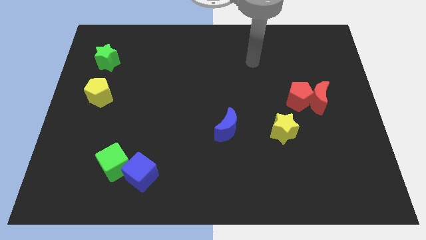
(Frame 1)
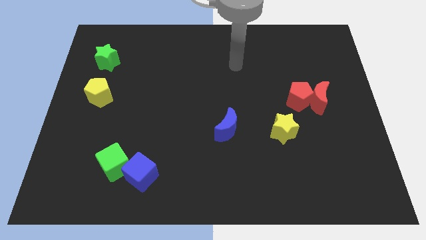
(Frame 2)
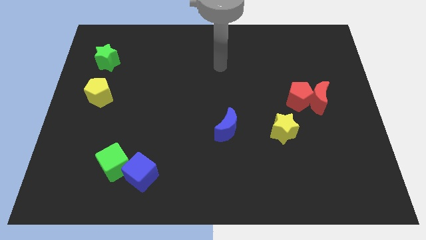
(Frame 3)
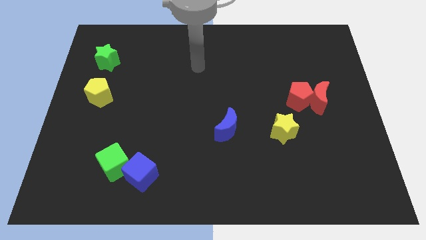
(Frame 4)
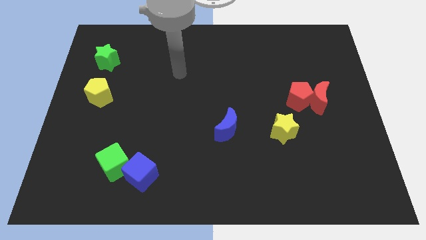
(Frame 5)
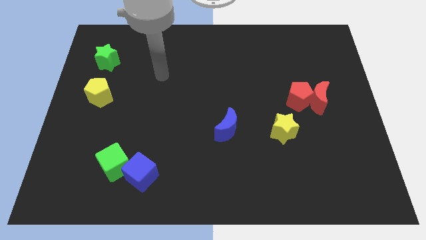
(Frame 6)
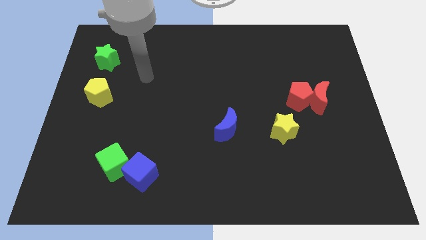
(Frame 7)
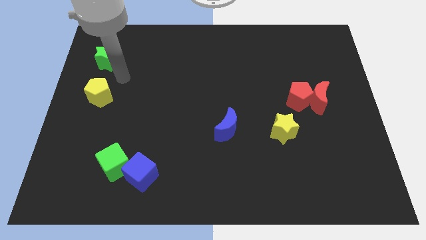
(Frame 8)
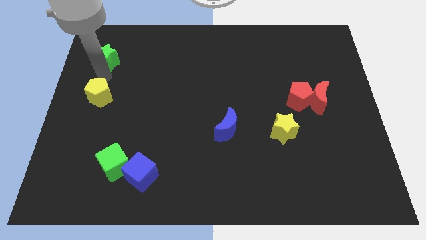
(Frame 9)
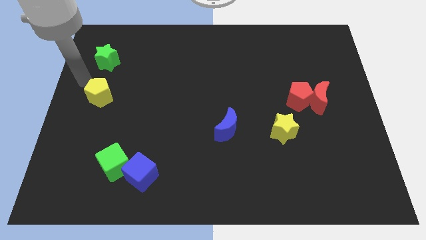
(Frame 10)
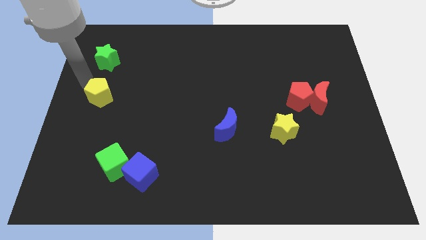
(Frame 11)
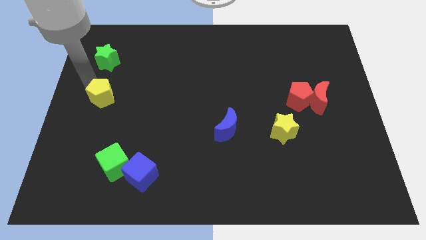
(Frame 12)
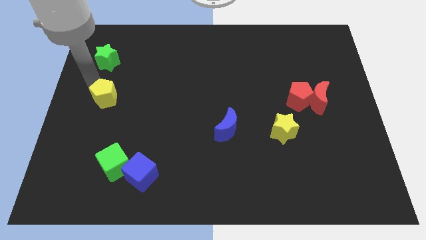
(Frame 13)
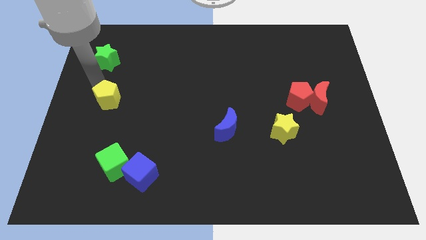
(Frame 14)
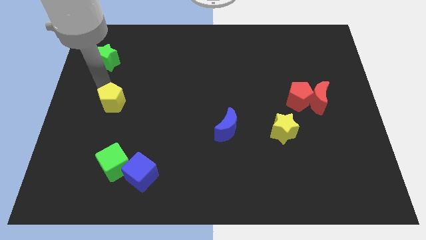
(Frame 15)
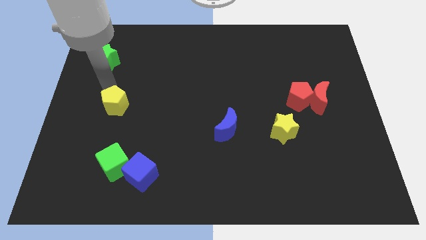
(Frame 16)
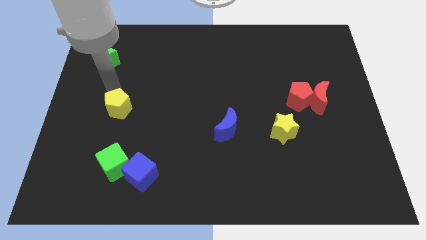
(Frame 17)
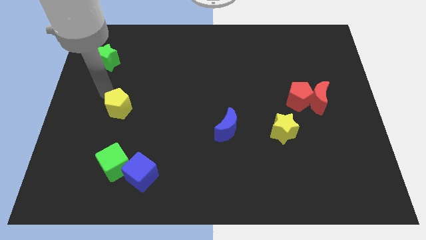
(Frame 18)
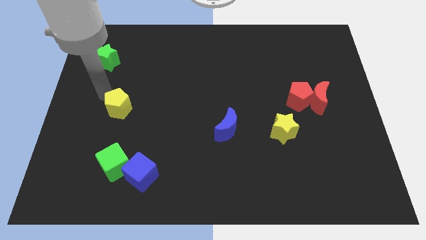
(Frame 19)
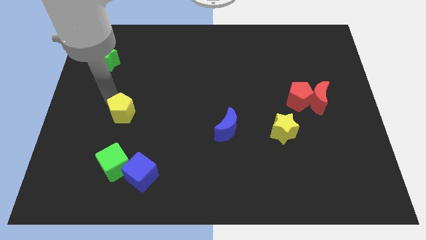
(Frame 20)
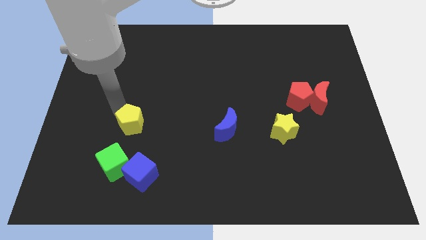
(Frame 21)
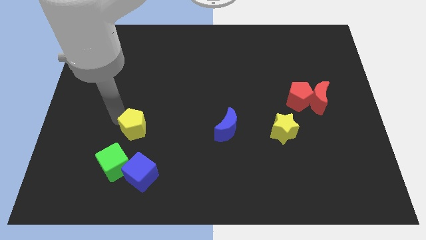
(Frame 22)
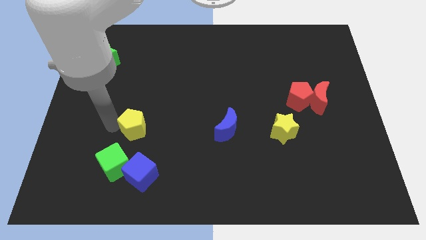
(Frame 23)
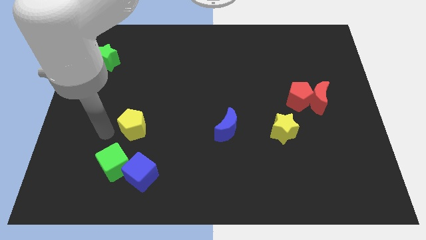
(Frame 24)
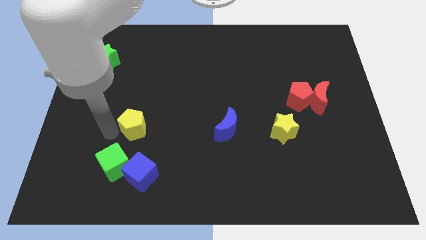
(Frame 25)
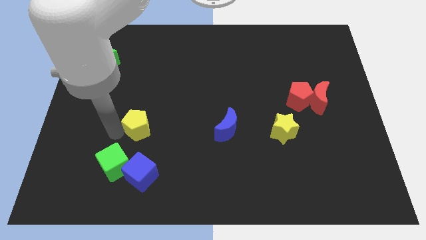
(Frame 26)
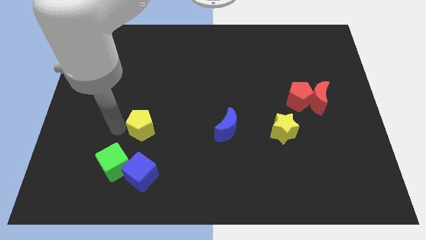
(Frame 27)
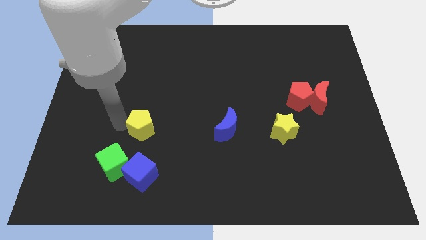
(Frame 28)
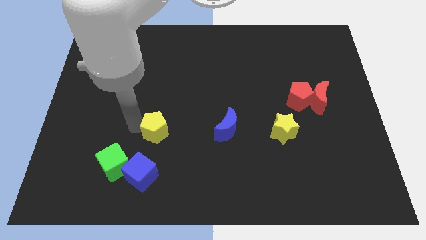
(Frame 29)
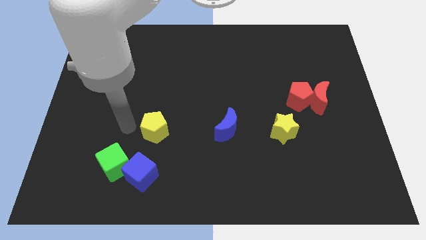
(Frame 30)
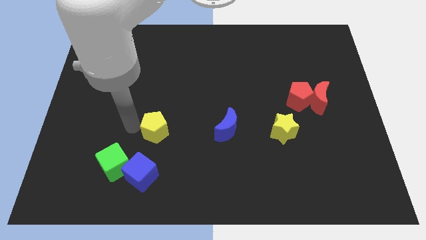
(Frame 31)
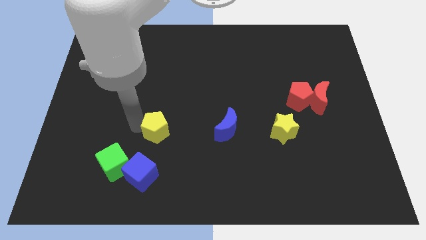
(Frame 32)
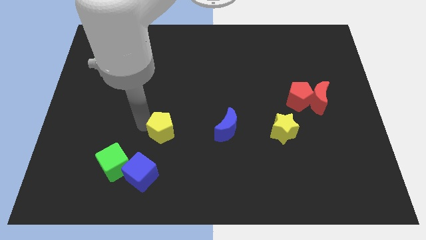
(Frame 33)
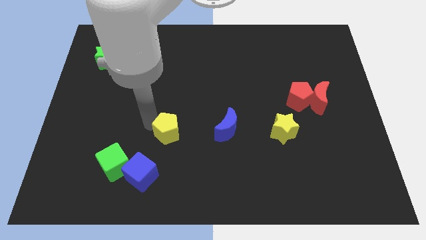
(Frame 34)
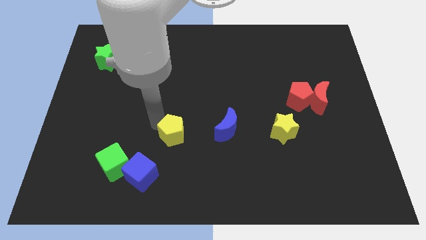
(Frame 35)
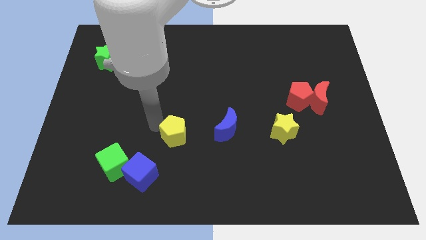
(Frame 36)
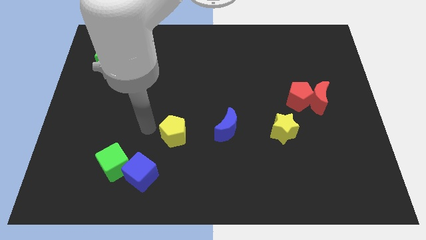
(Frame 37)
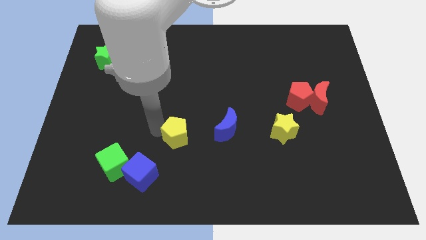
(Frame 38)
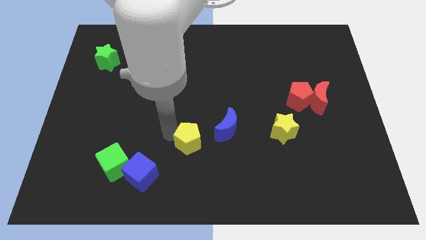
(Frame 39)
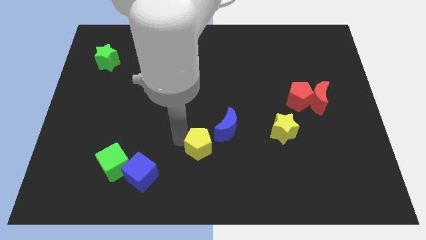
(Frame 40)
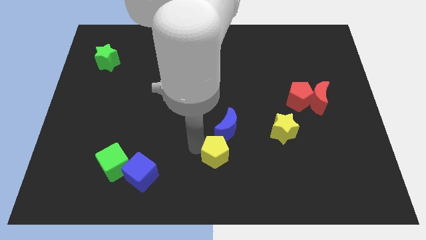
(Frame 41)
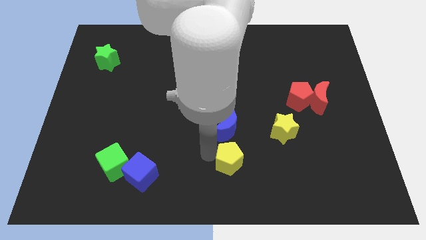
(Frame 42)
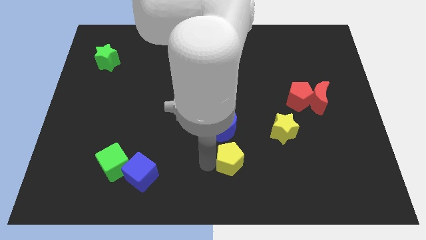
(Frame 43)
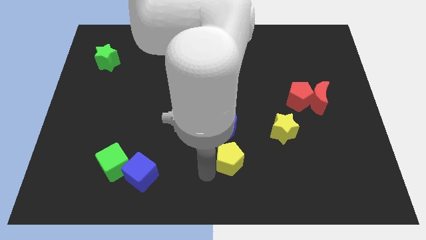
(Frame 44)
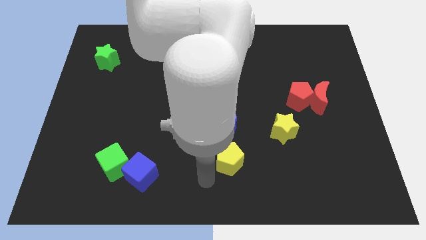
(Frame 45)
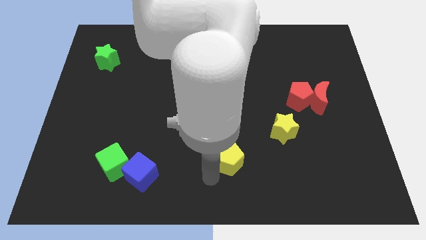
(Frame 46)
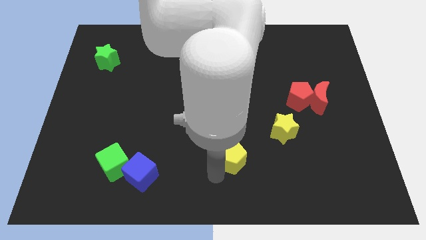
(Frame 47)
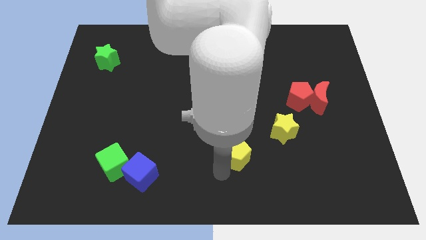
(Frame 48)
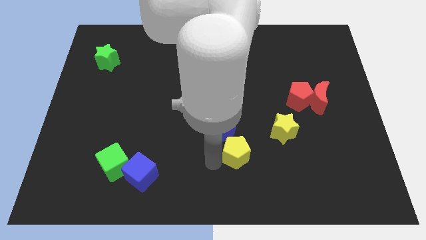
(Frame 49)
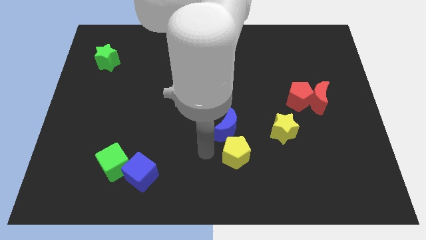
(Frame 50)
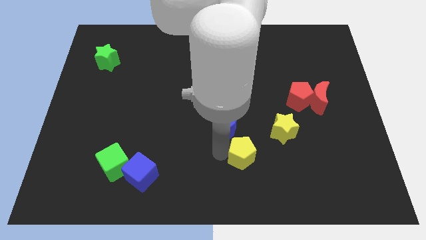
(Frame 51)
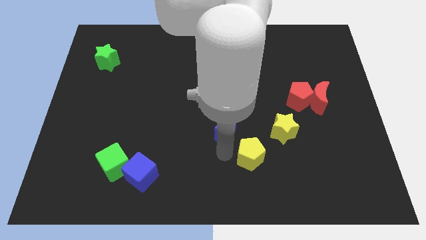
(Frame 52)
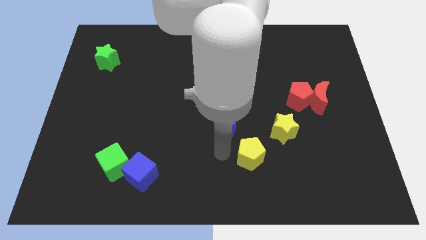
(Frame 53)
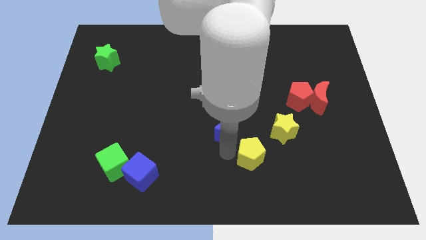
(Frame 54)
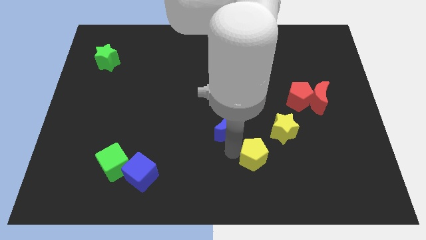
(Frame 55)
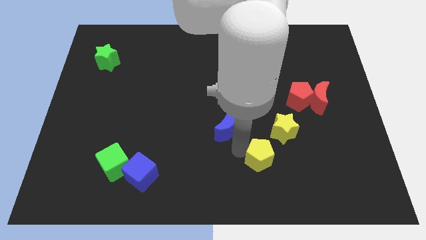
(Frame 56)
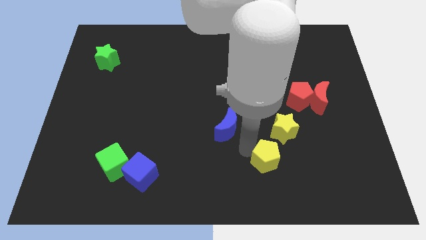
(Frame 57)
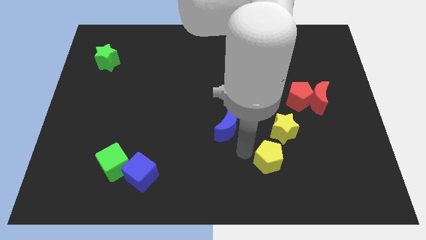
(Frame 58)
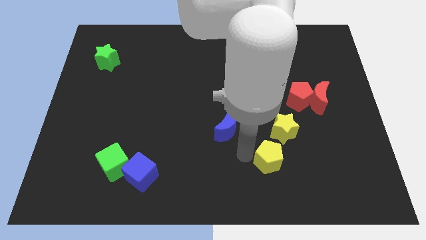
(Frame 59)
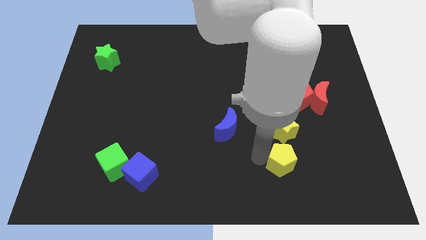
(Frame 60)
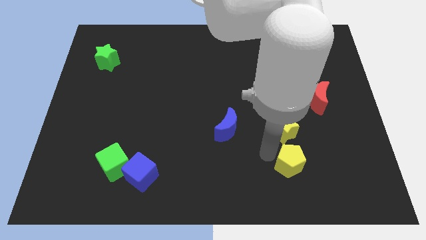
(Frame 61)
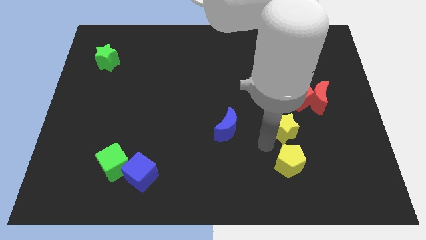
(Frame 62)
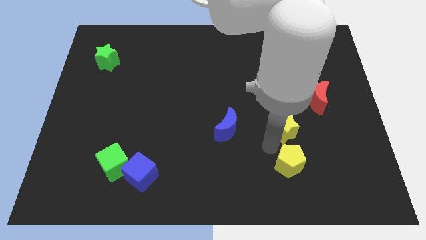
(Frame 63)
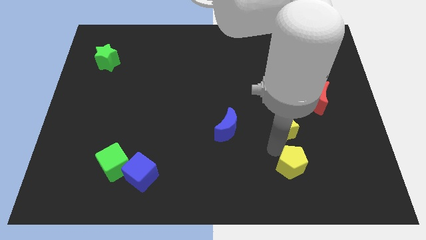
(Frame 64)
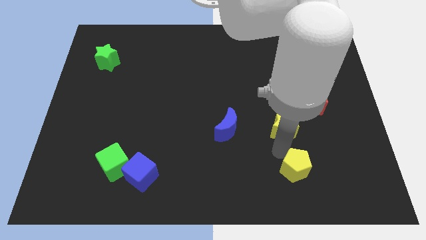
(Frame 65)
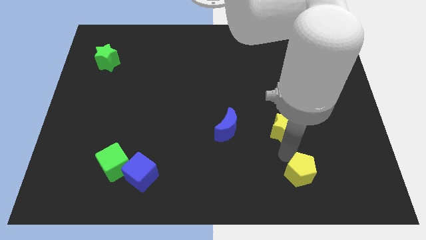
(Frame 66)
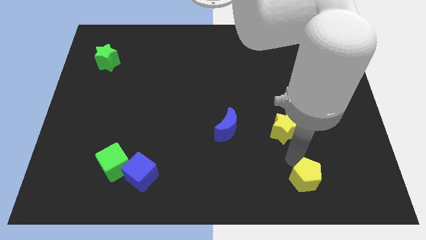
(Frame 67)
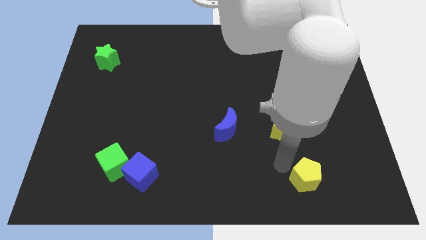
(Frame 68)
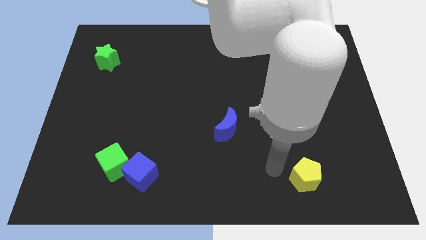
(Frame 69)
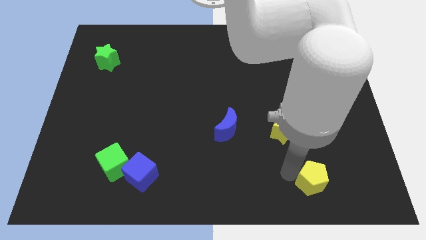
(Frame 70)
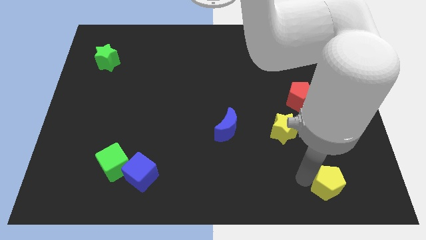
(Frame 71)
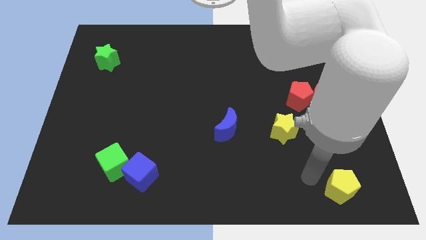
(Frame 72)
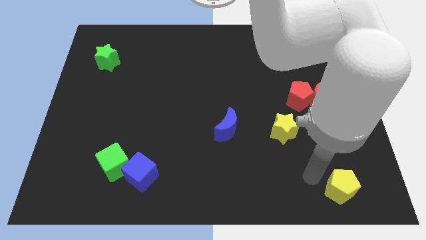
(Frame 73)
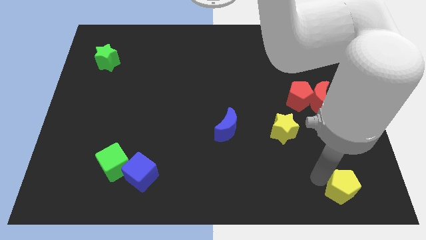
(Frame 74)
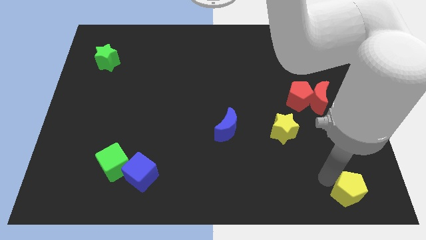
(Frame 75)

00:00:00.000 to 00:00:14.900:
put the yellow pentagon to the bottom right corner
